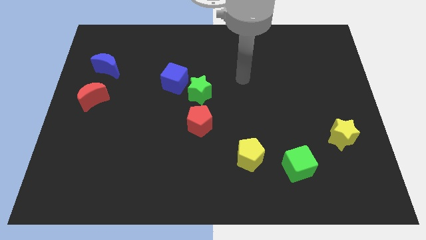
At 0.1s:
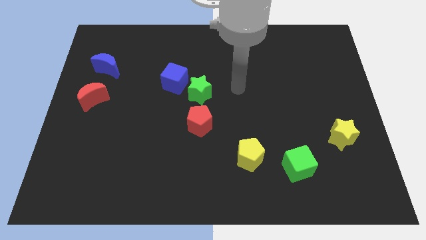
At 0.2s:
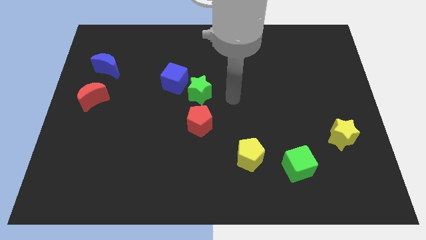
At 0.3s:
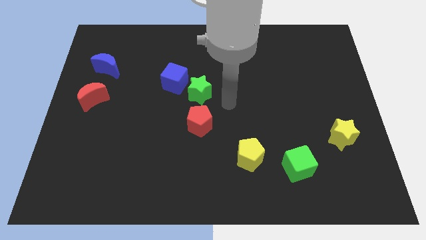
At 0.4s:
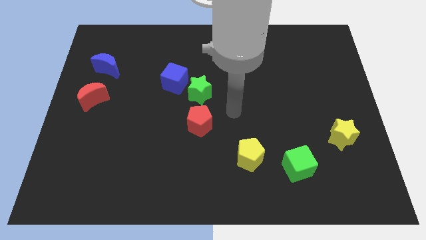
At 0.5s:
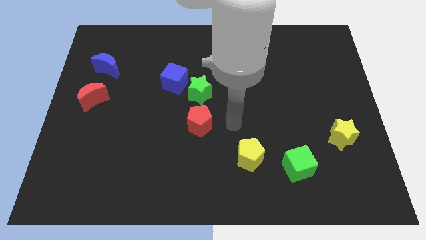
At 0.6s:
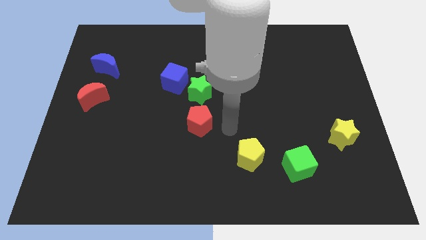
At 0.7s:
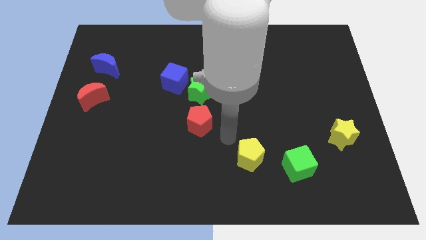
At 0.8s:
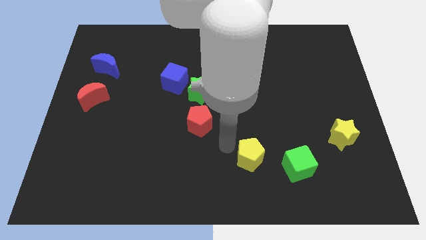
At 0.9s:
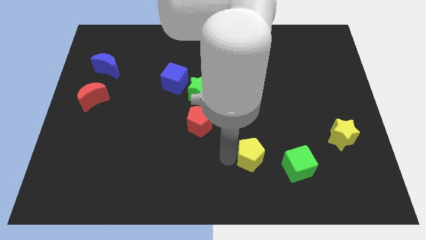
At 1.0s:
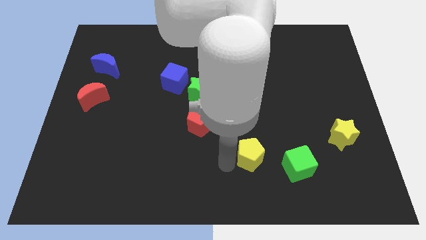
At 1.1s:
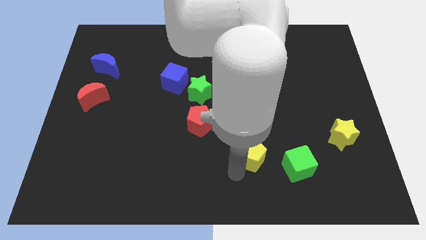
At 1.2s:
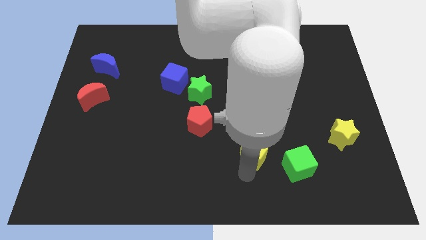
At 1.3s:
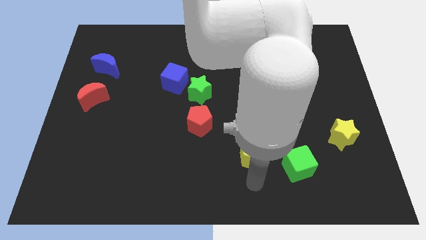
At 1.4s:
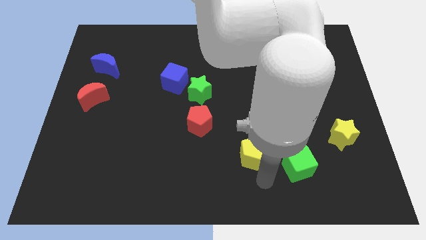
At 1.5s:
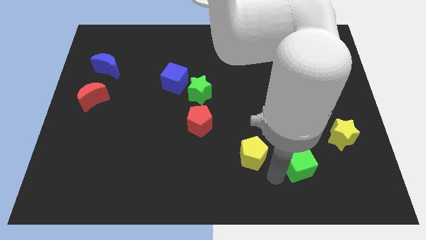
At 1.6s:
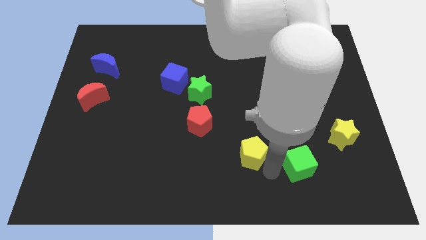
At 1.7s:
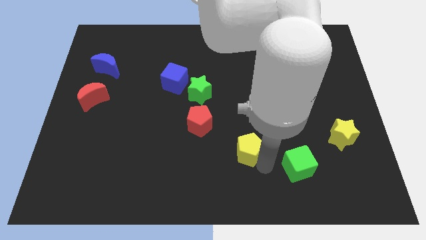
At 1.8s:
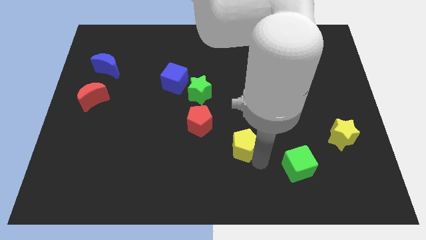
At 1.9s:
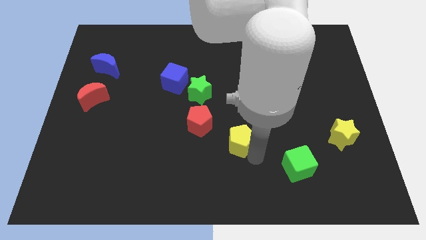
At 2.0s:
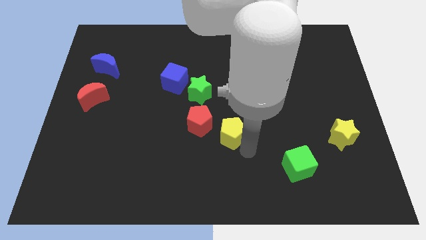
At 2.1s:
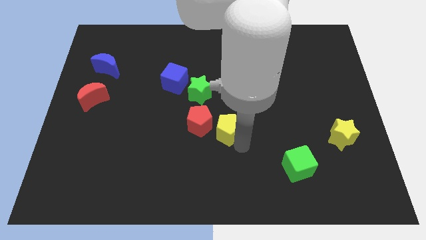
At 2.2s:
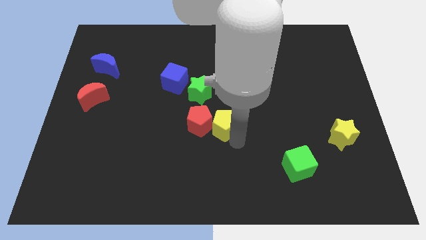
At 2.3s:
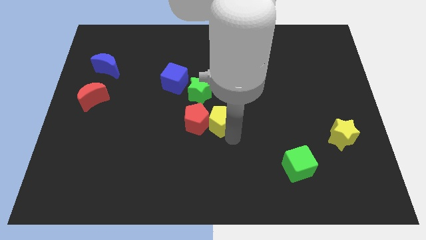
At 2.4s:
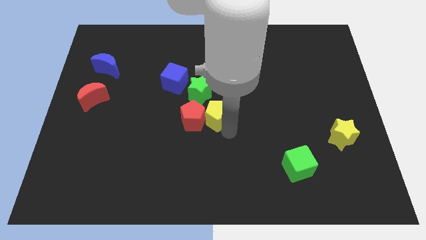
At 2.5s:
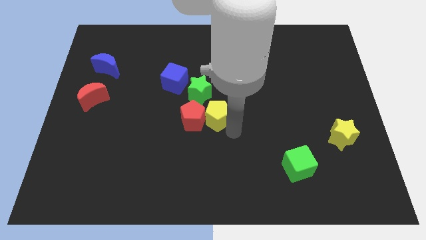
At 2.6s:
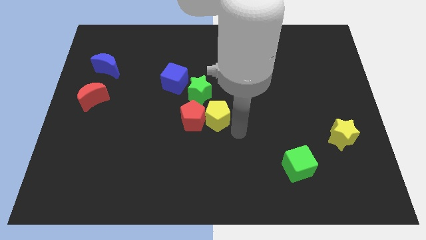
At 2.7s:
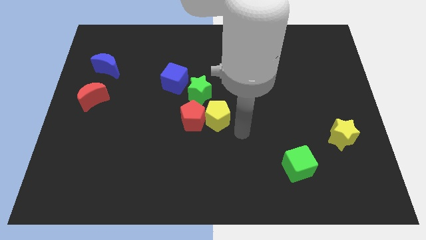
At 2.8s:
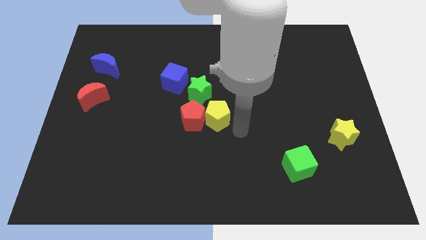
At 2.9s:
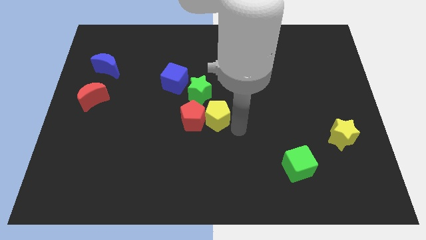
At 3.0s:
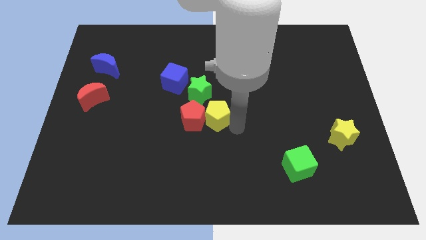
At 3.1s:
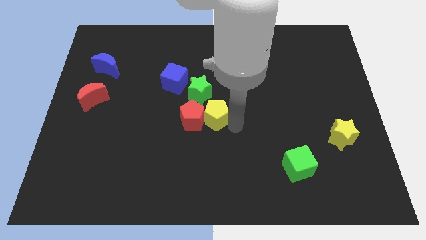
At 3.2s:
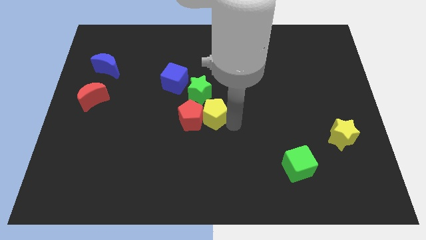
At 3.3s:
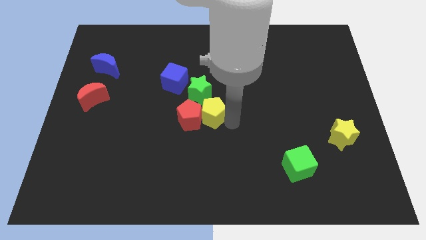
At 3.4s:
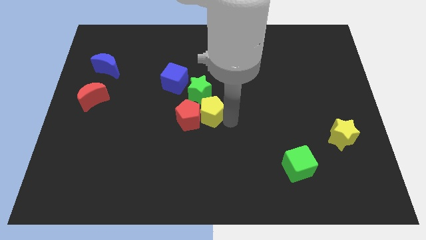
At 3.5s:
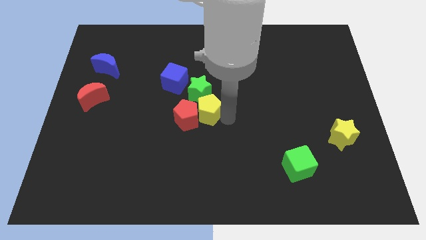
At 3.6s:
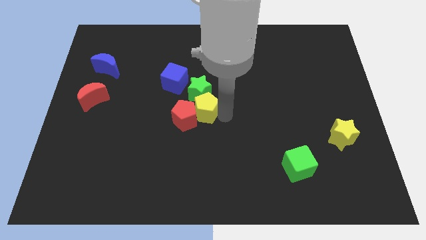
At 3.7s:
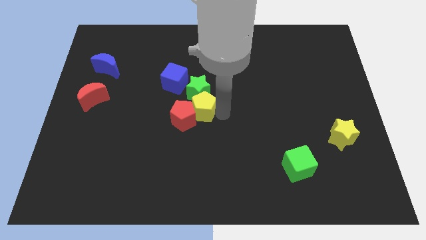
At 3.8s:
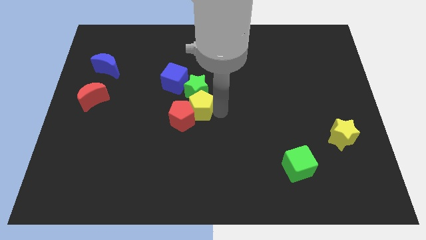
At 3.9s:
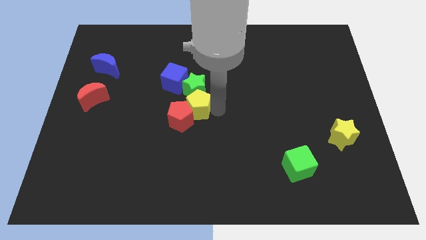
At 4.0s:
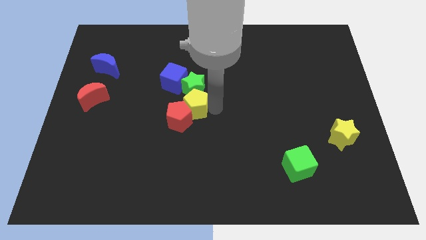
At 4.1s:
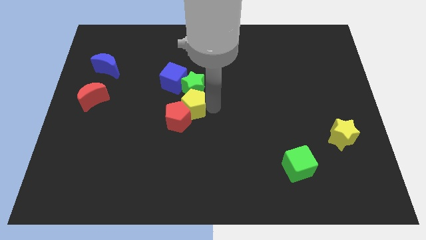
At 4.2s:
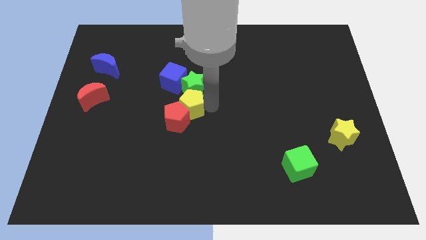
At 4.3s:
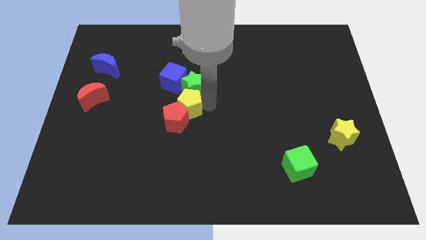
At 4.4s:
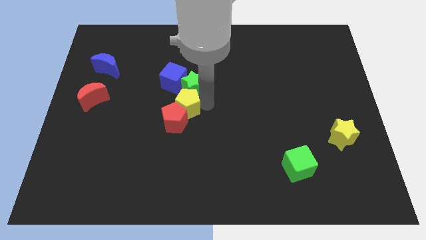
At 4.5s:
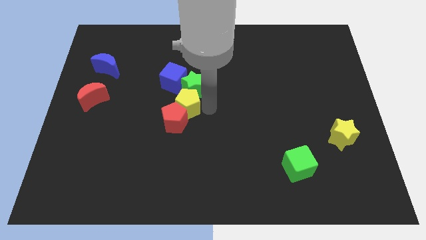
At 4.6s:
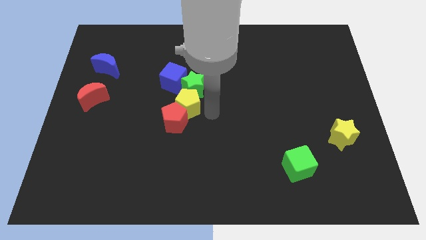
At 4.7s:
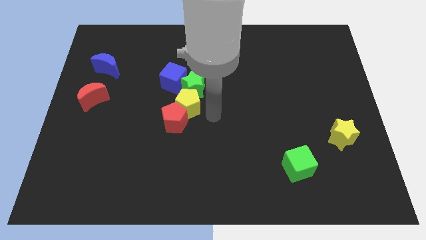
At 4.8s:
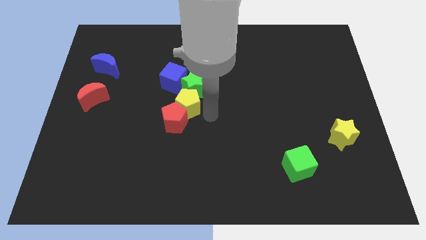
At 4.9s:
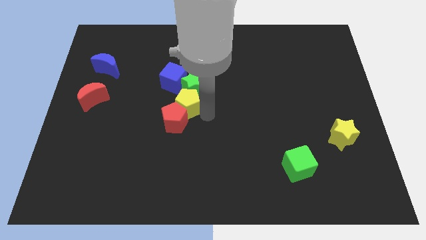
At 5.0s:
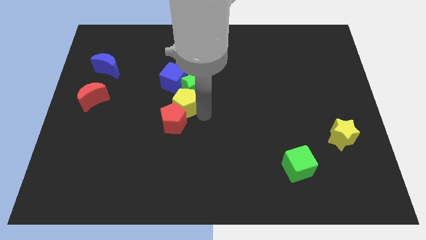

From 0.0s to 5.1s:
slide the yellow pentagon upwards and left

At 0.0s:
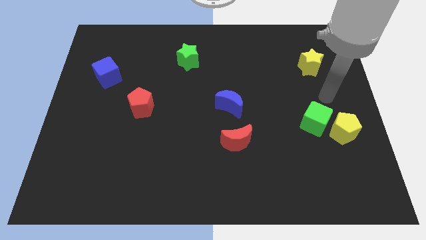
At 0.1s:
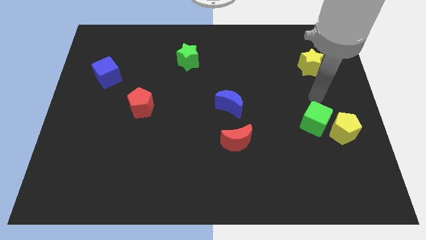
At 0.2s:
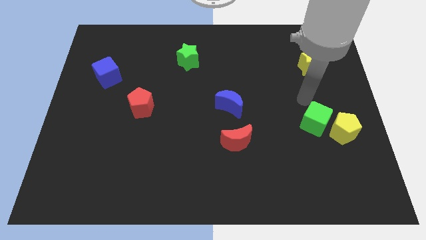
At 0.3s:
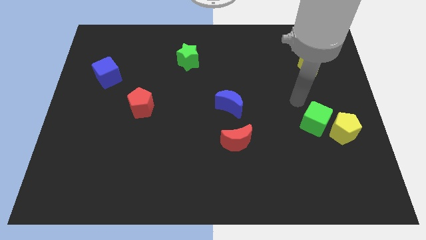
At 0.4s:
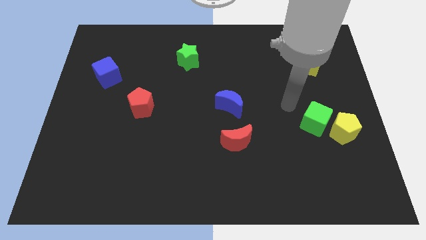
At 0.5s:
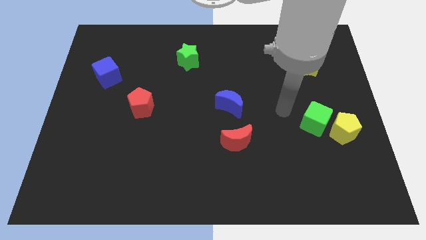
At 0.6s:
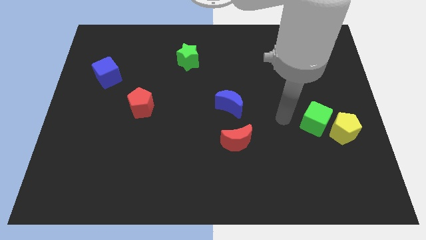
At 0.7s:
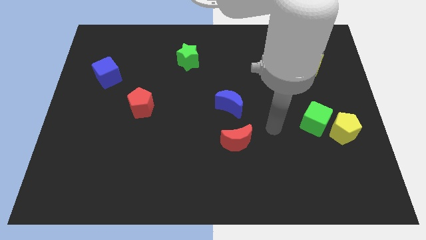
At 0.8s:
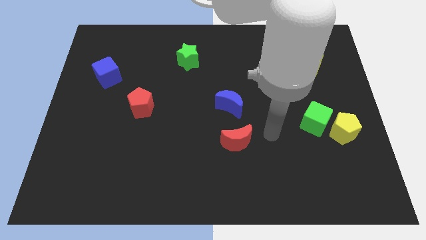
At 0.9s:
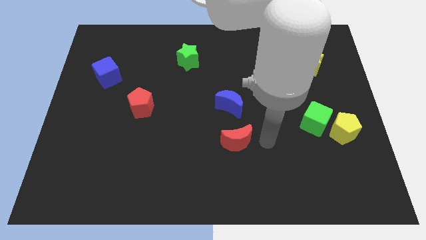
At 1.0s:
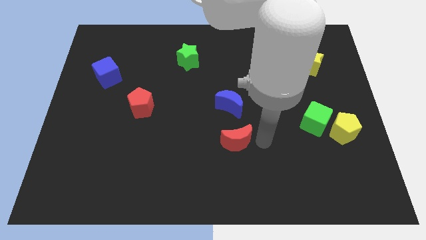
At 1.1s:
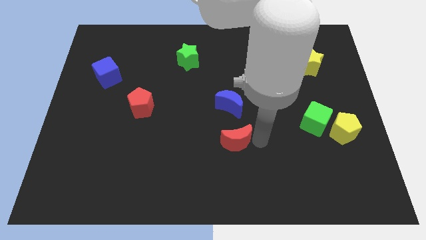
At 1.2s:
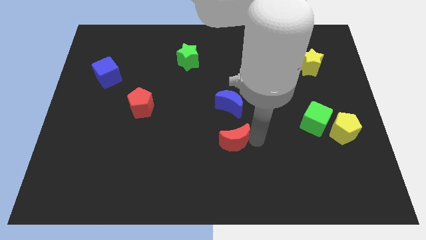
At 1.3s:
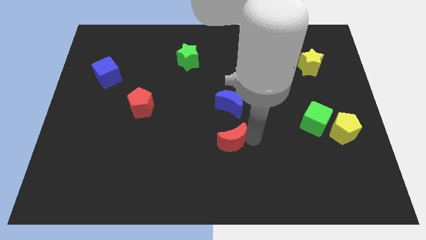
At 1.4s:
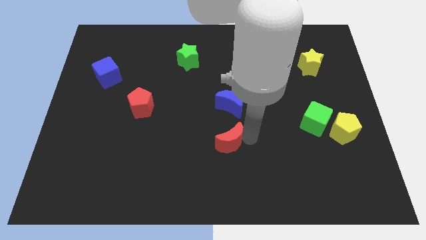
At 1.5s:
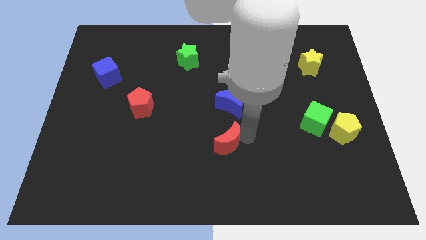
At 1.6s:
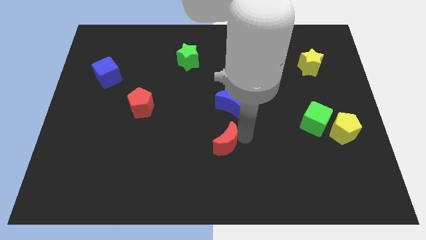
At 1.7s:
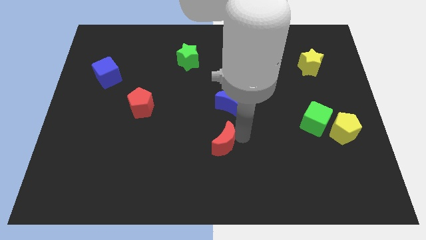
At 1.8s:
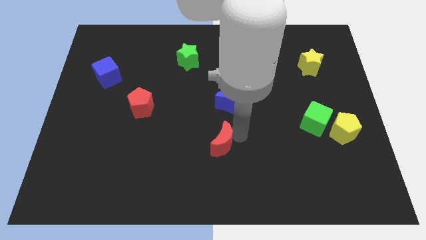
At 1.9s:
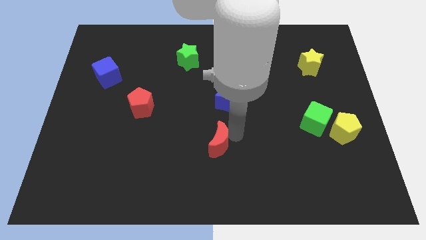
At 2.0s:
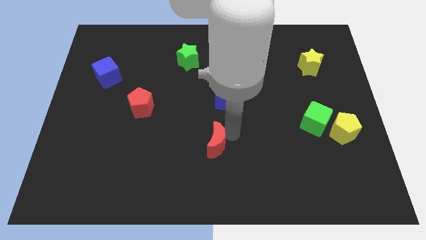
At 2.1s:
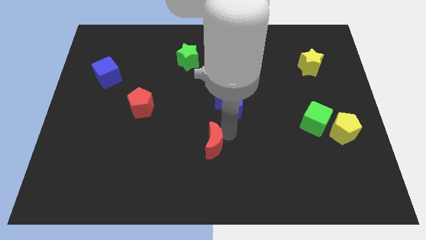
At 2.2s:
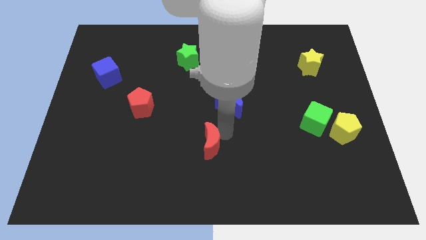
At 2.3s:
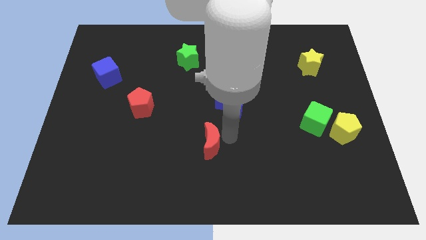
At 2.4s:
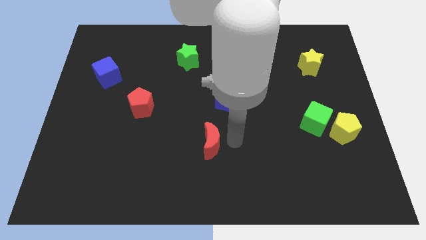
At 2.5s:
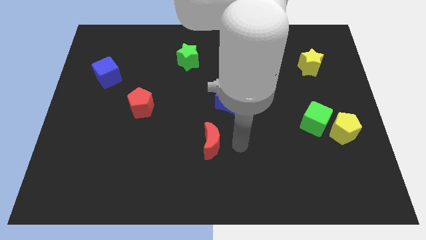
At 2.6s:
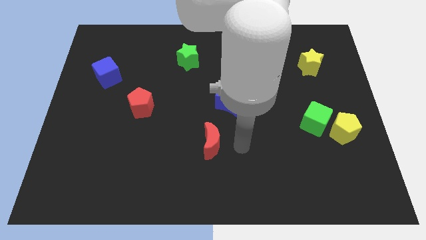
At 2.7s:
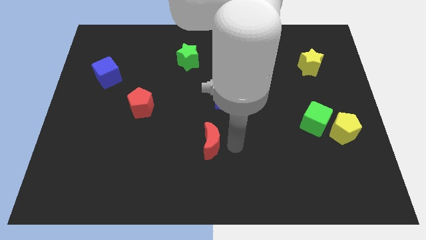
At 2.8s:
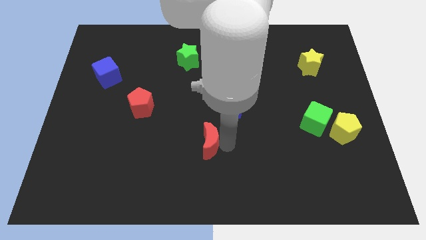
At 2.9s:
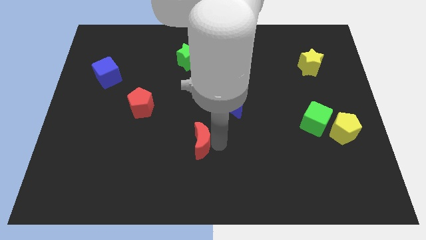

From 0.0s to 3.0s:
push the red moon a bit left
